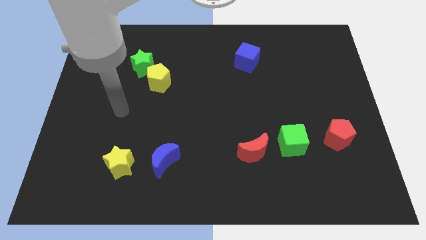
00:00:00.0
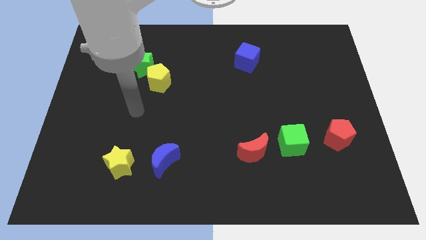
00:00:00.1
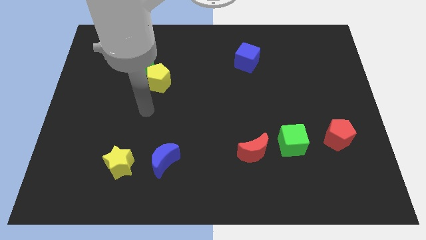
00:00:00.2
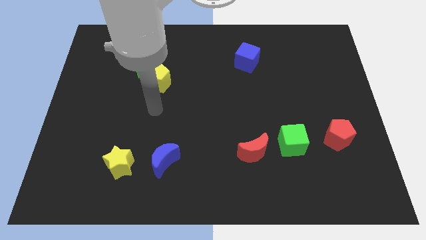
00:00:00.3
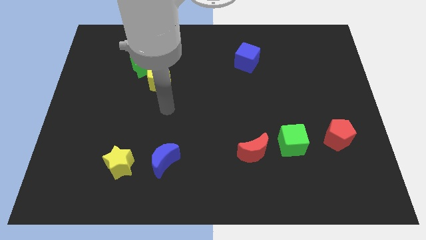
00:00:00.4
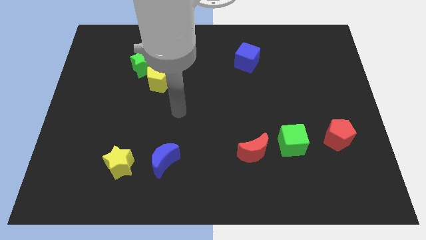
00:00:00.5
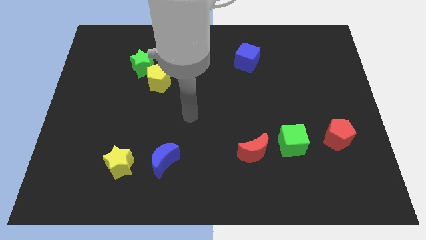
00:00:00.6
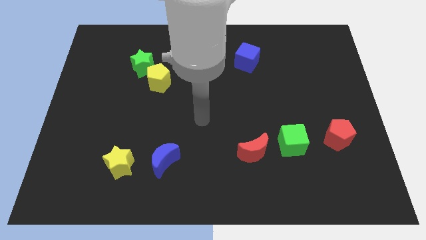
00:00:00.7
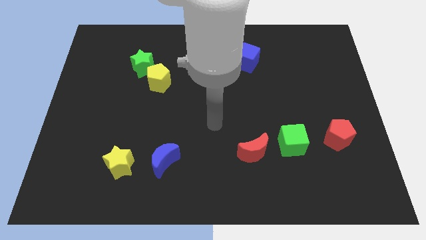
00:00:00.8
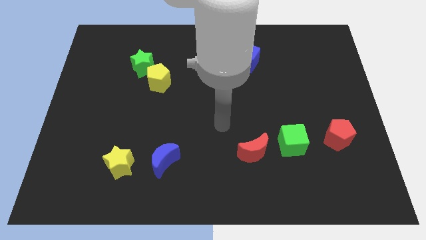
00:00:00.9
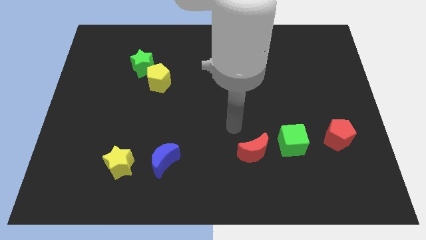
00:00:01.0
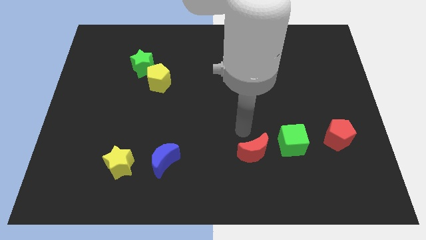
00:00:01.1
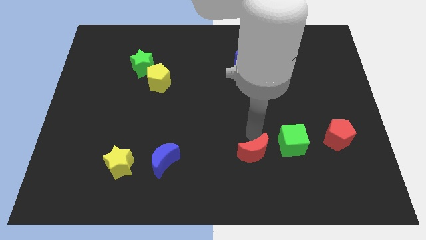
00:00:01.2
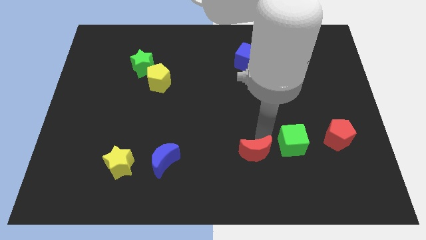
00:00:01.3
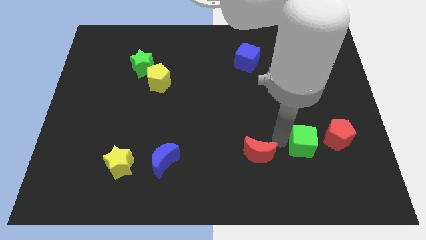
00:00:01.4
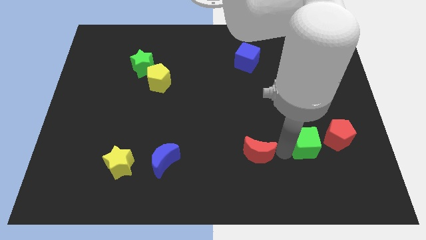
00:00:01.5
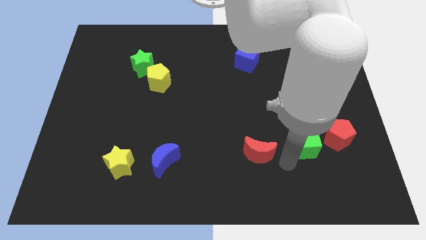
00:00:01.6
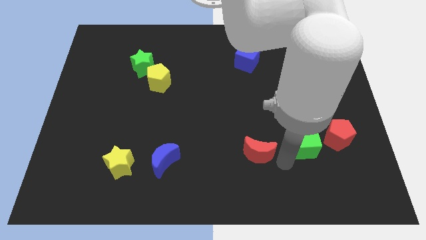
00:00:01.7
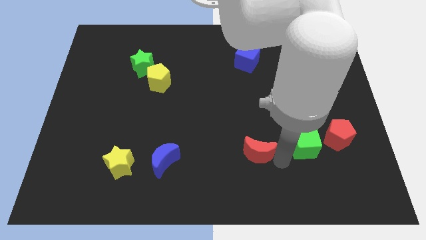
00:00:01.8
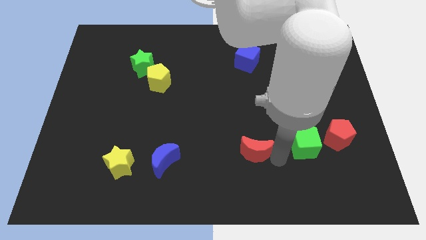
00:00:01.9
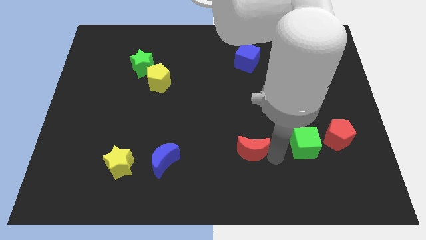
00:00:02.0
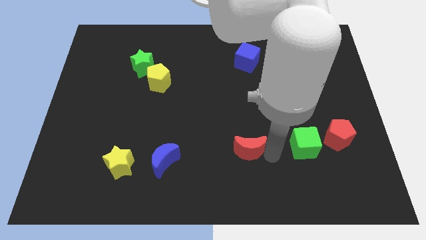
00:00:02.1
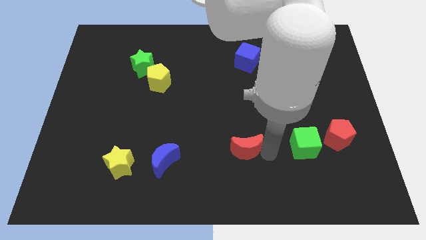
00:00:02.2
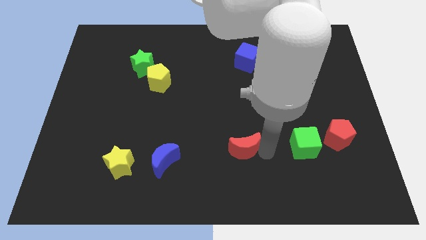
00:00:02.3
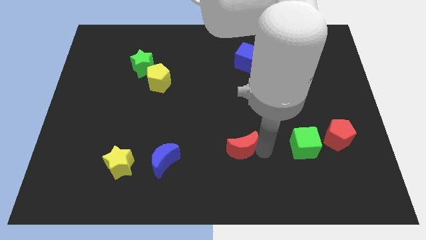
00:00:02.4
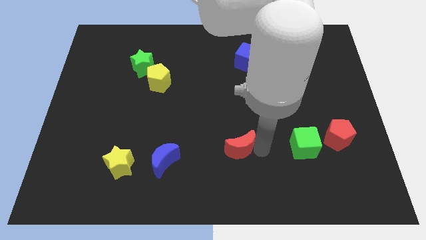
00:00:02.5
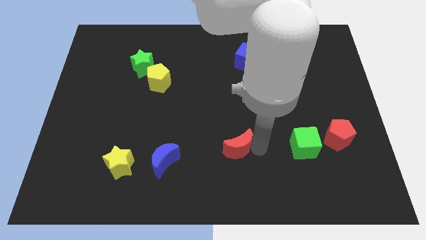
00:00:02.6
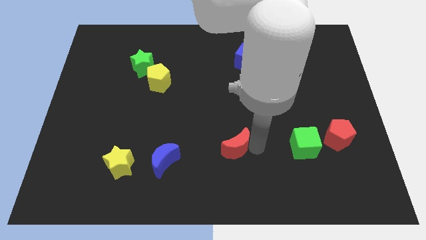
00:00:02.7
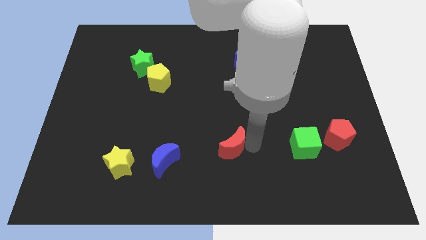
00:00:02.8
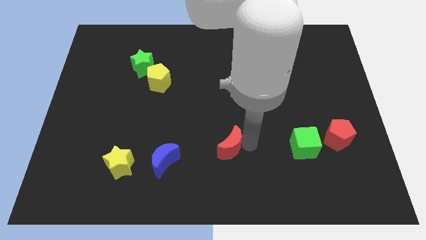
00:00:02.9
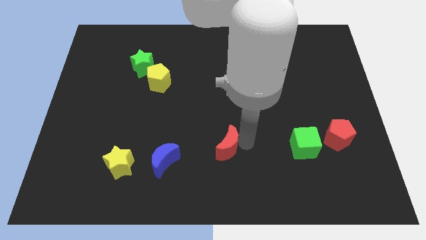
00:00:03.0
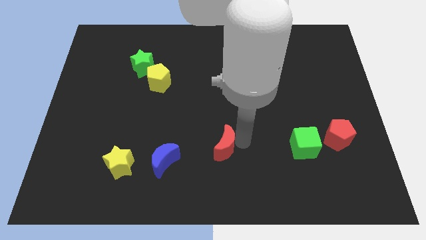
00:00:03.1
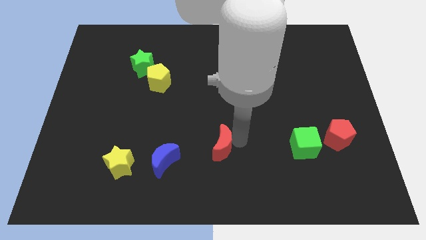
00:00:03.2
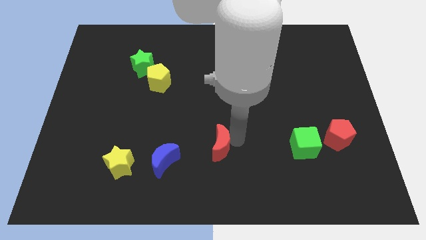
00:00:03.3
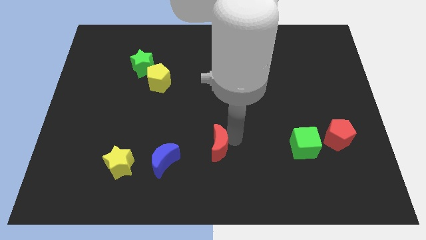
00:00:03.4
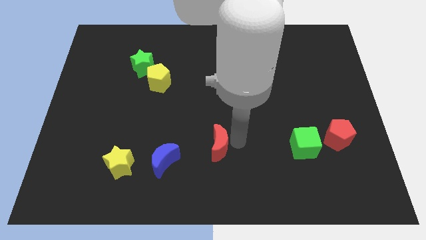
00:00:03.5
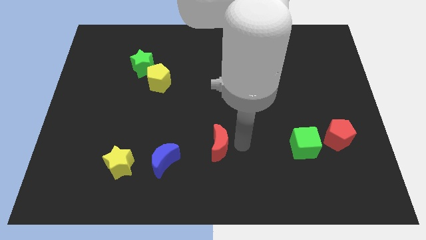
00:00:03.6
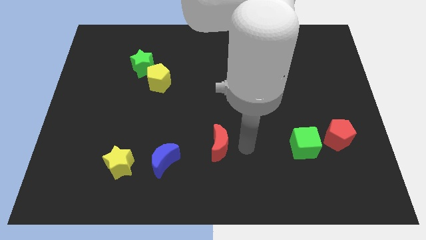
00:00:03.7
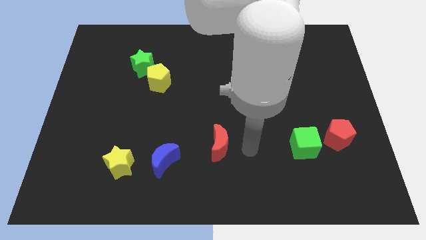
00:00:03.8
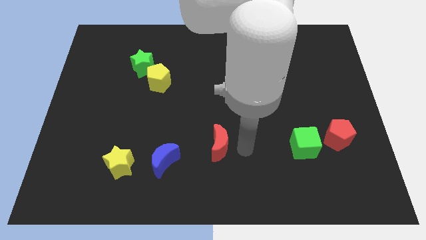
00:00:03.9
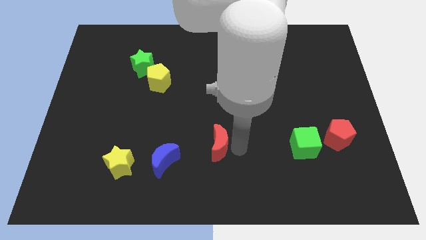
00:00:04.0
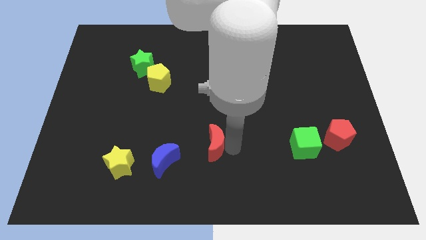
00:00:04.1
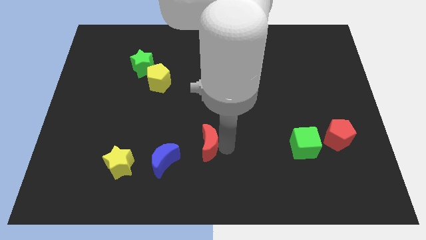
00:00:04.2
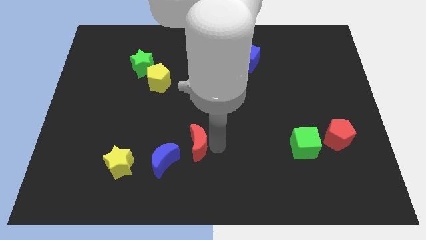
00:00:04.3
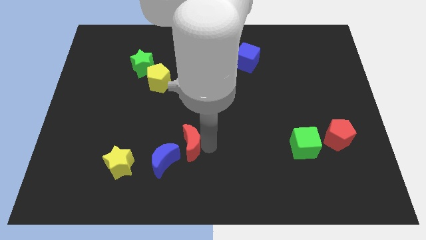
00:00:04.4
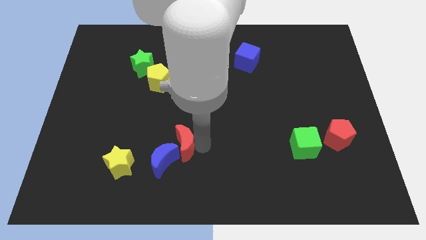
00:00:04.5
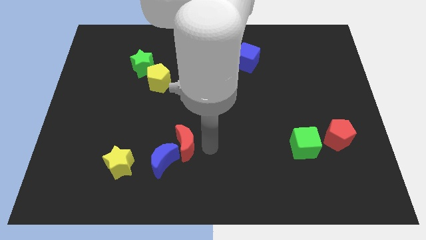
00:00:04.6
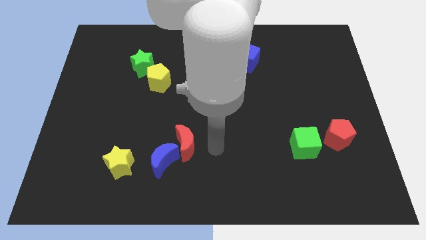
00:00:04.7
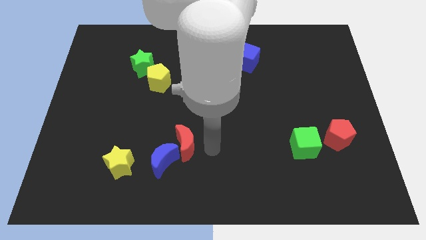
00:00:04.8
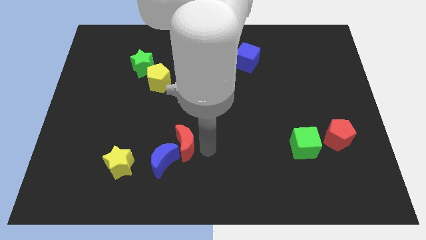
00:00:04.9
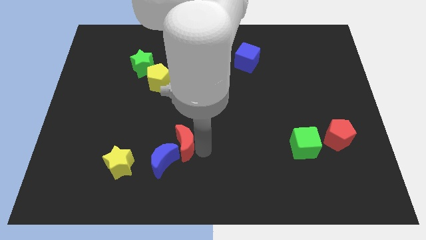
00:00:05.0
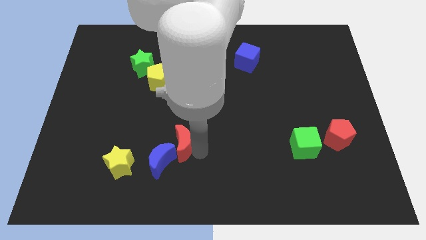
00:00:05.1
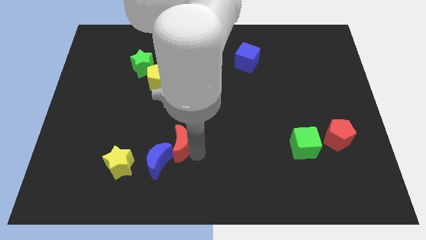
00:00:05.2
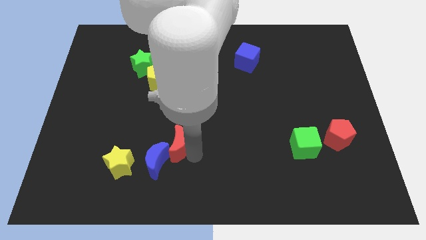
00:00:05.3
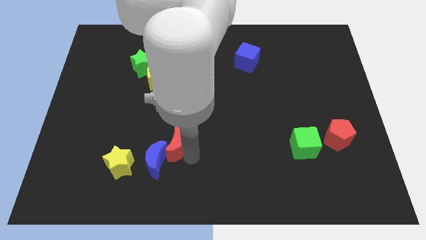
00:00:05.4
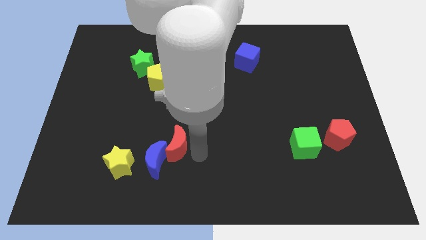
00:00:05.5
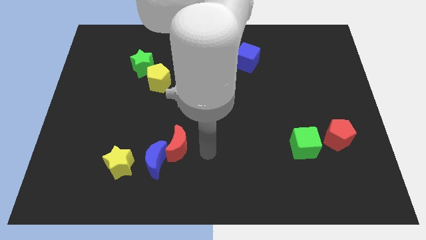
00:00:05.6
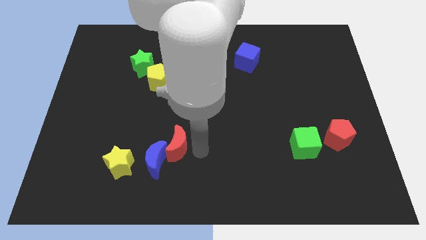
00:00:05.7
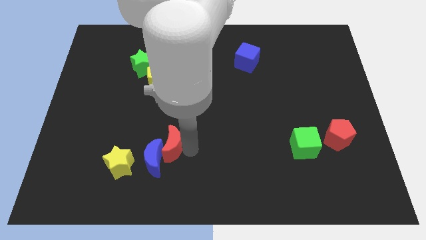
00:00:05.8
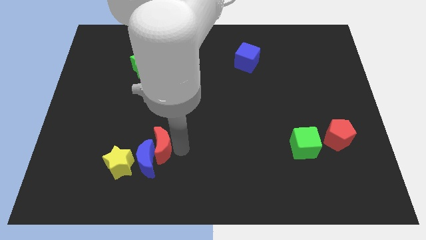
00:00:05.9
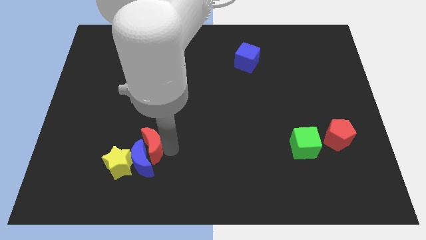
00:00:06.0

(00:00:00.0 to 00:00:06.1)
move the red moon to the top left side of the blue moon

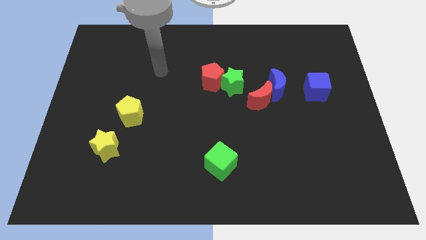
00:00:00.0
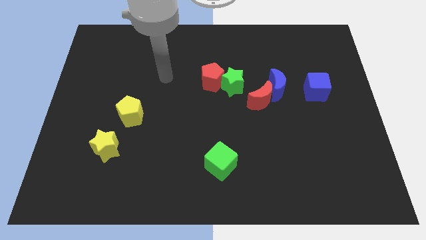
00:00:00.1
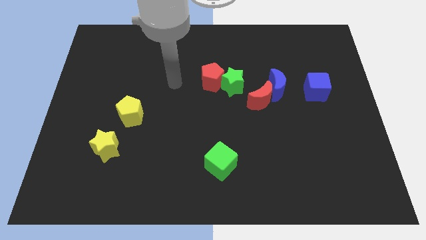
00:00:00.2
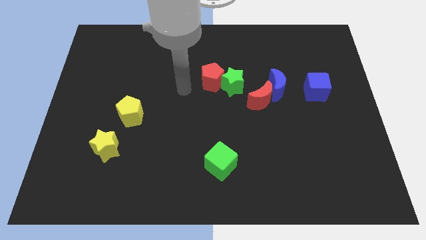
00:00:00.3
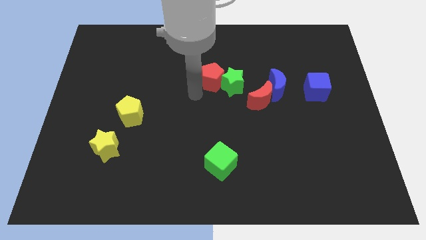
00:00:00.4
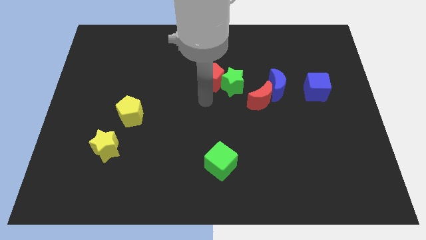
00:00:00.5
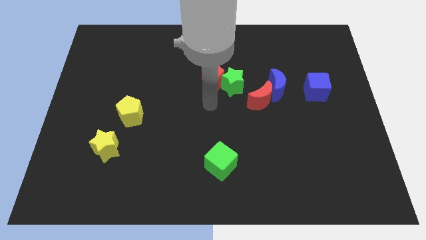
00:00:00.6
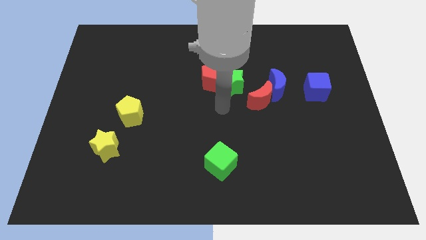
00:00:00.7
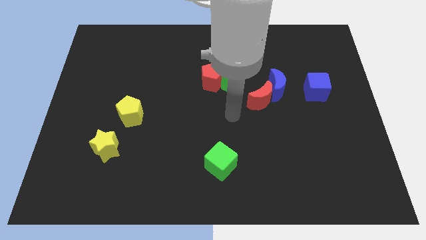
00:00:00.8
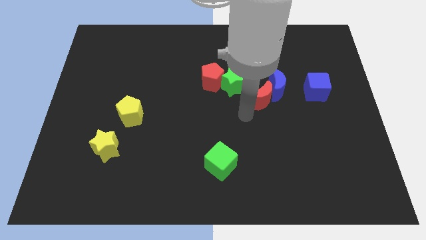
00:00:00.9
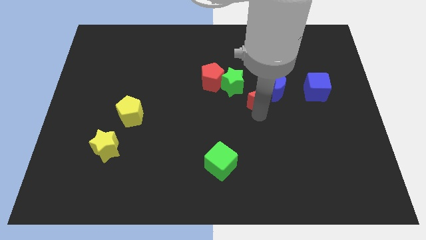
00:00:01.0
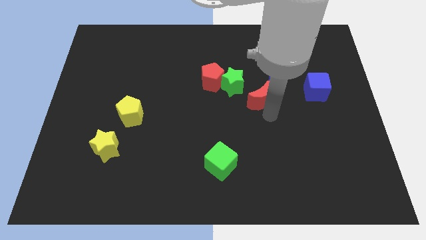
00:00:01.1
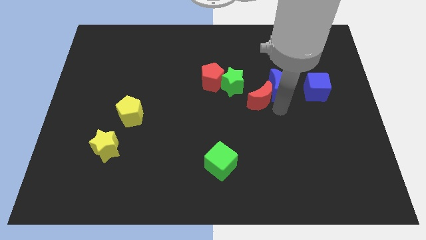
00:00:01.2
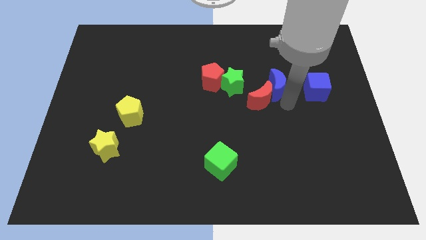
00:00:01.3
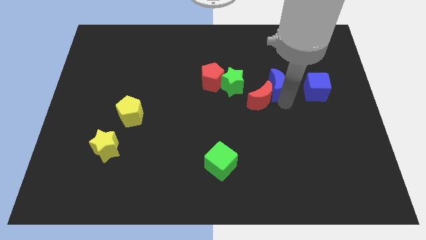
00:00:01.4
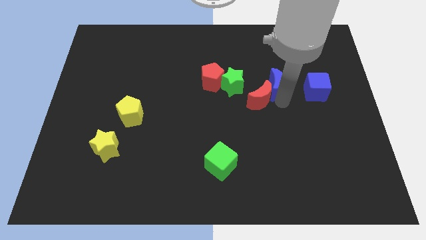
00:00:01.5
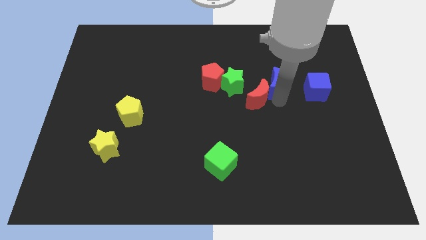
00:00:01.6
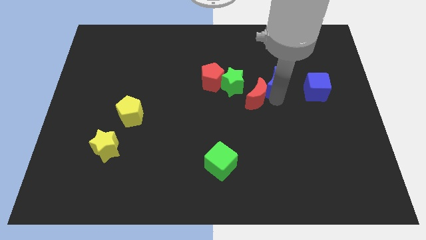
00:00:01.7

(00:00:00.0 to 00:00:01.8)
push the red moon to the bottom right of the red pentagon
